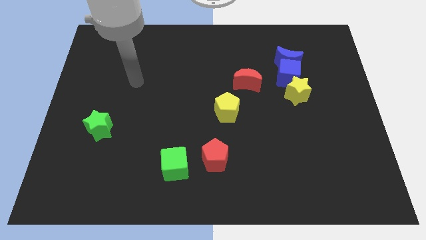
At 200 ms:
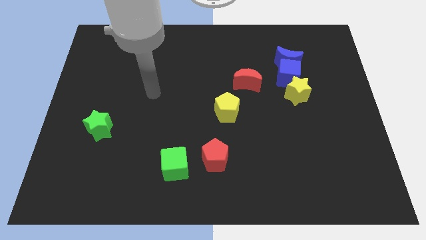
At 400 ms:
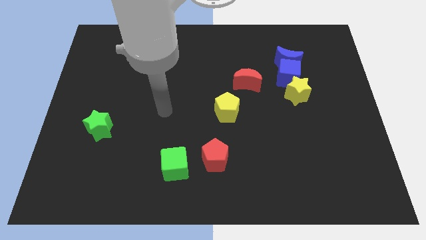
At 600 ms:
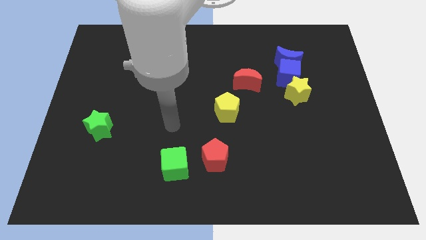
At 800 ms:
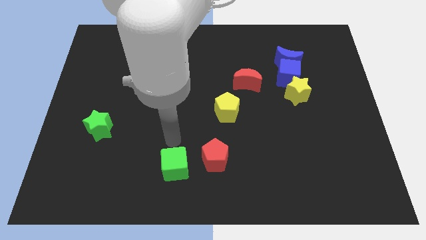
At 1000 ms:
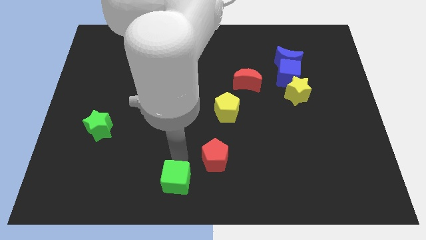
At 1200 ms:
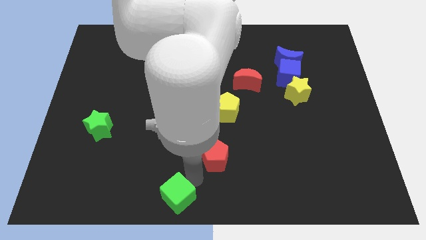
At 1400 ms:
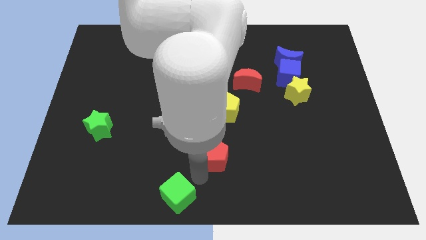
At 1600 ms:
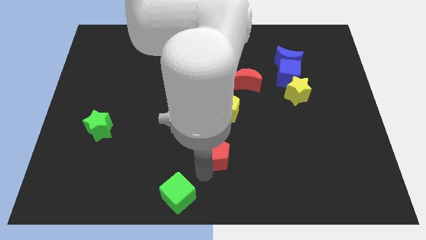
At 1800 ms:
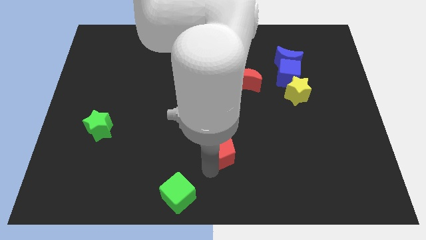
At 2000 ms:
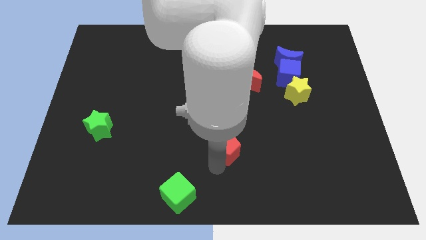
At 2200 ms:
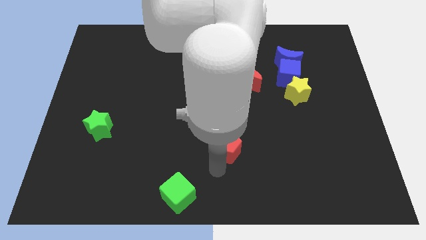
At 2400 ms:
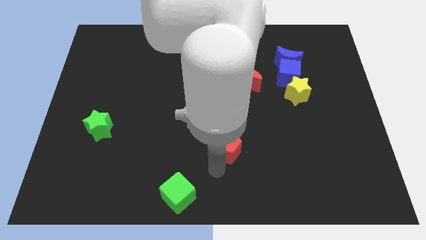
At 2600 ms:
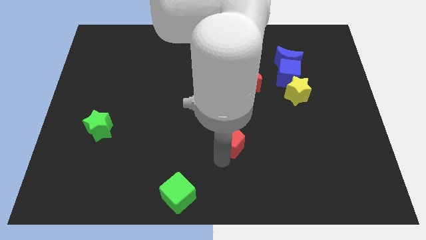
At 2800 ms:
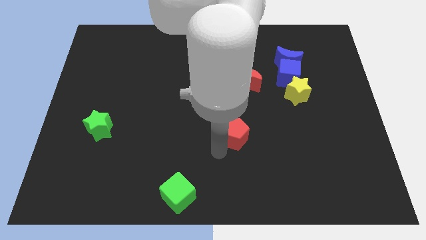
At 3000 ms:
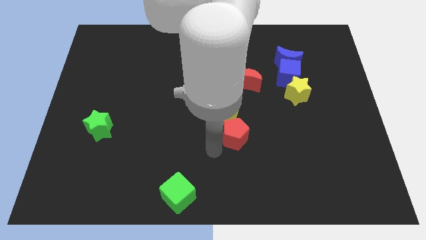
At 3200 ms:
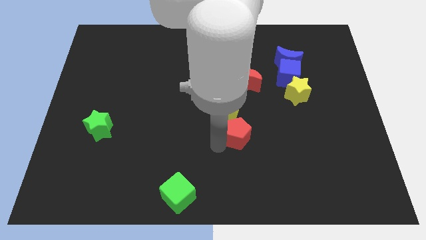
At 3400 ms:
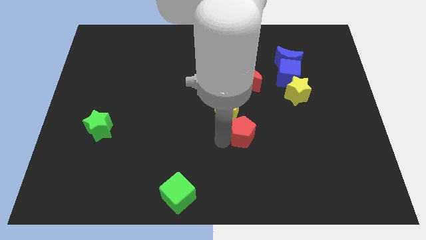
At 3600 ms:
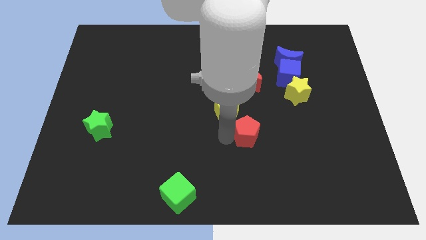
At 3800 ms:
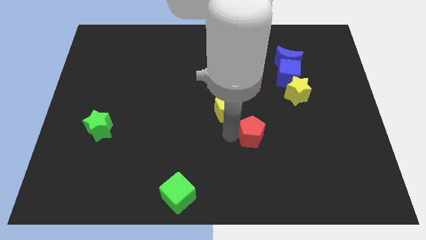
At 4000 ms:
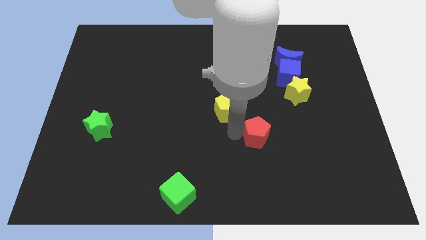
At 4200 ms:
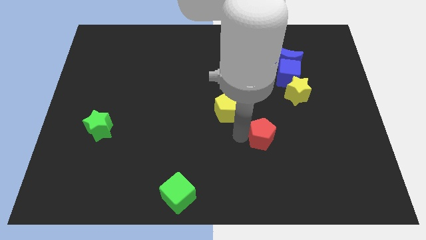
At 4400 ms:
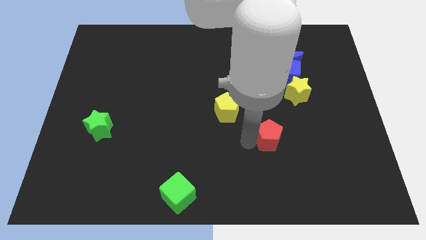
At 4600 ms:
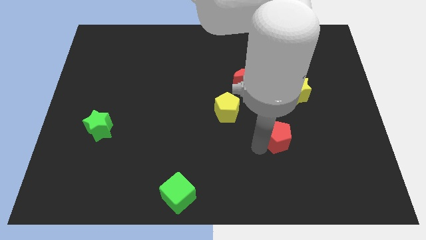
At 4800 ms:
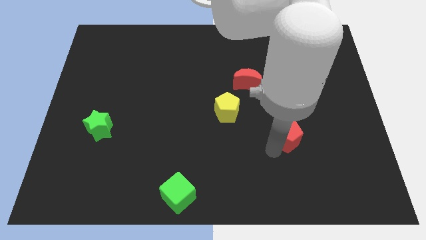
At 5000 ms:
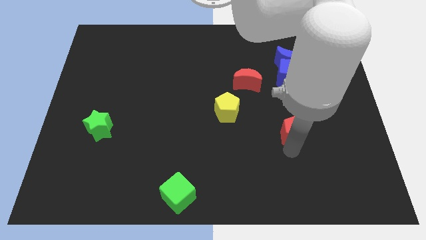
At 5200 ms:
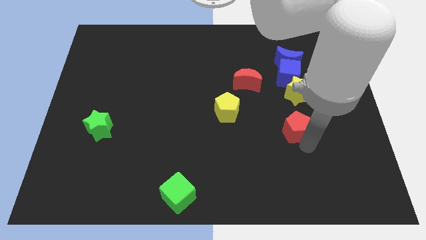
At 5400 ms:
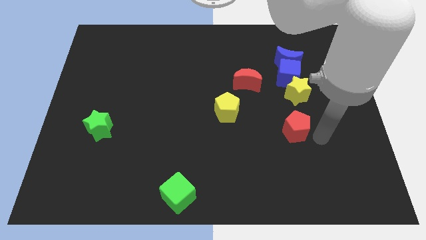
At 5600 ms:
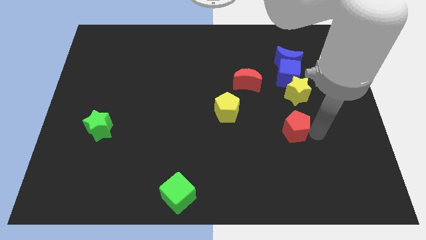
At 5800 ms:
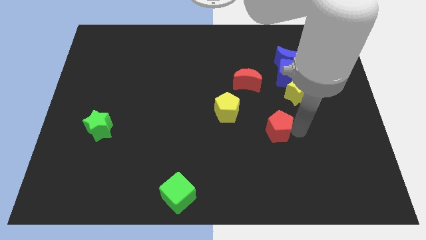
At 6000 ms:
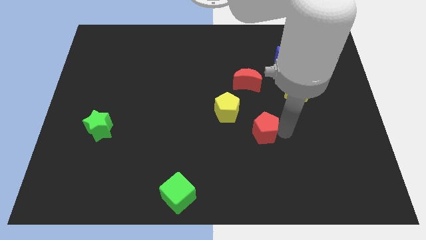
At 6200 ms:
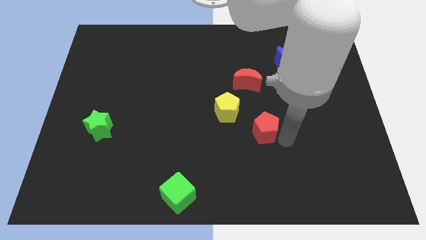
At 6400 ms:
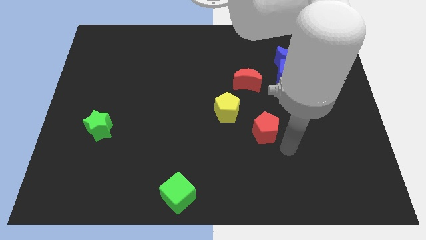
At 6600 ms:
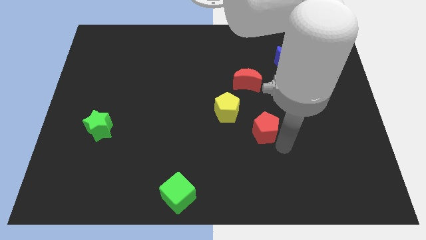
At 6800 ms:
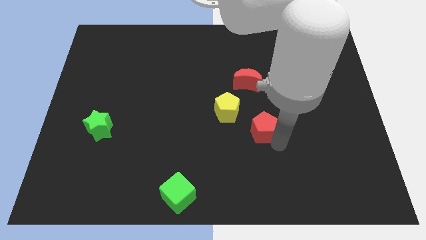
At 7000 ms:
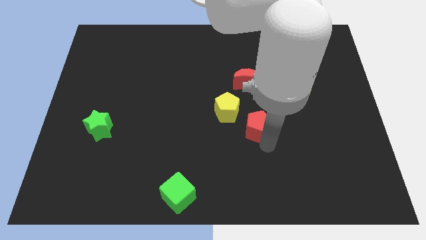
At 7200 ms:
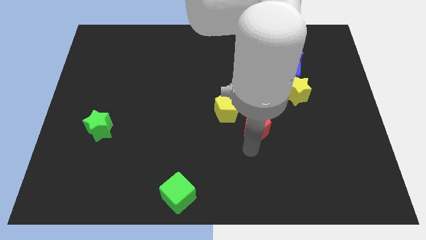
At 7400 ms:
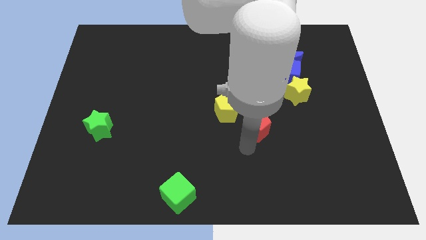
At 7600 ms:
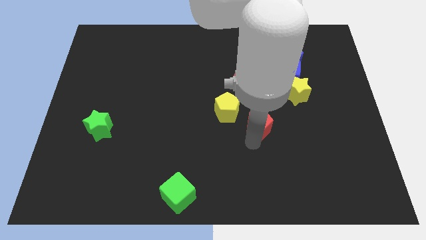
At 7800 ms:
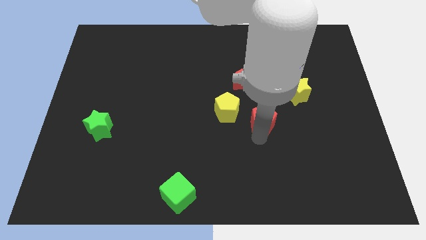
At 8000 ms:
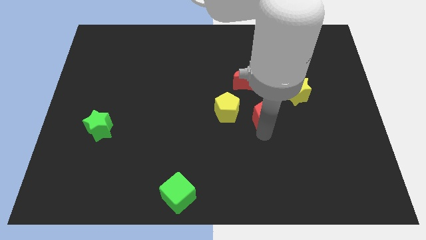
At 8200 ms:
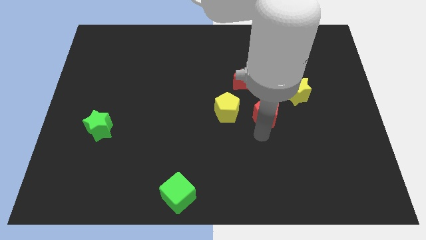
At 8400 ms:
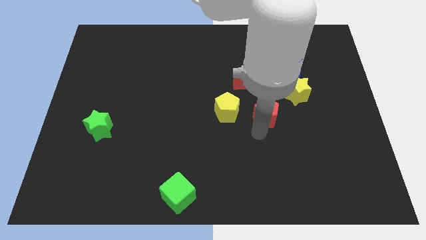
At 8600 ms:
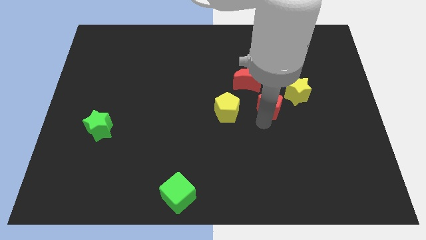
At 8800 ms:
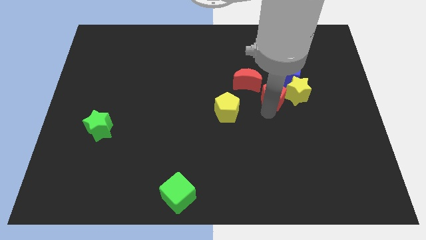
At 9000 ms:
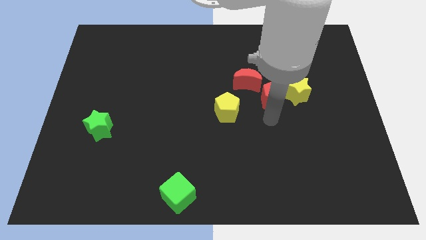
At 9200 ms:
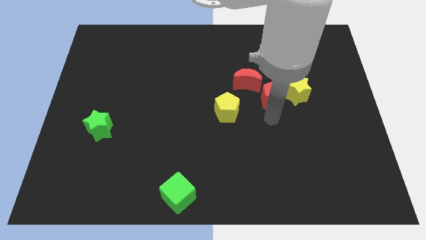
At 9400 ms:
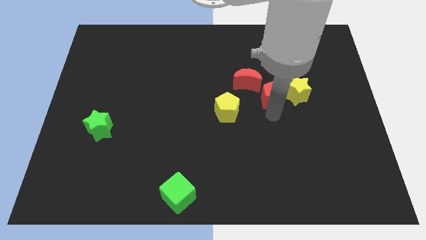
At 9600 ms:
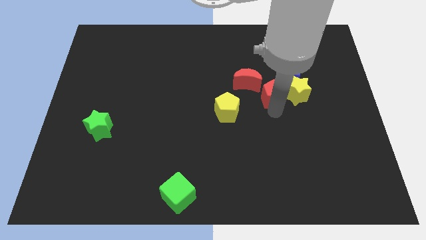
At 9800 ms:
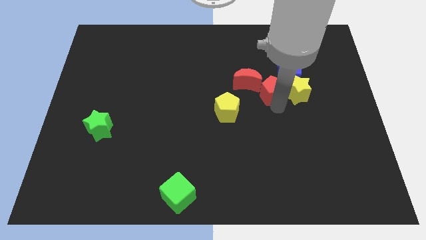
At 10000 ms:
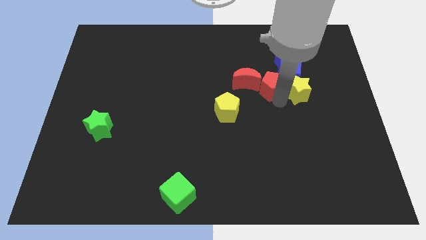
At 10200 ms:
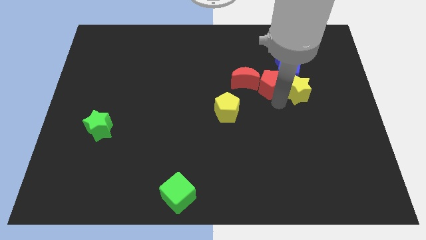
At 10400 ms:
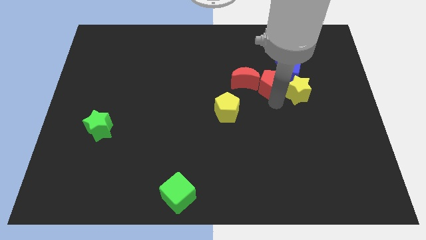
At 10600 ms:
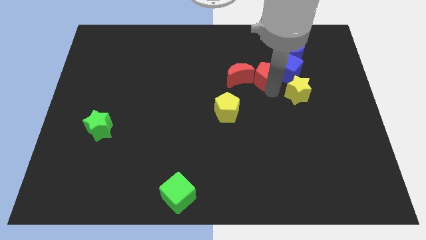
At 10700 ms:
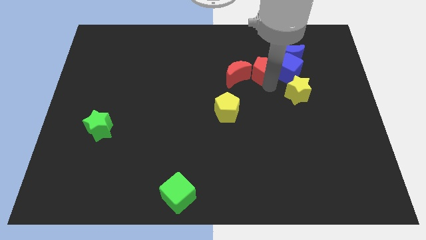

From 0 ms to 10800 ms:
slide the red pentagon to the top right side of the red moon

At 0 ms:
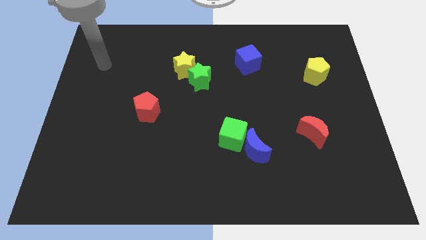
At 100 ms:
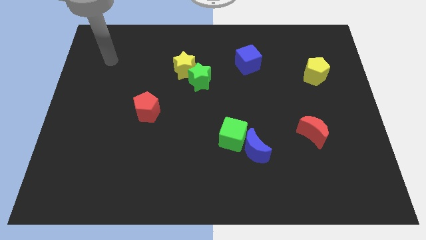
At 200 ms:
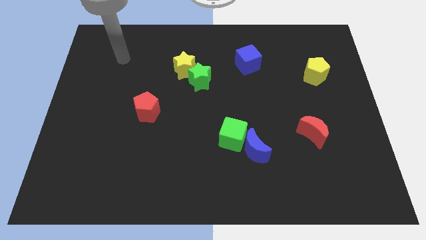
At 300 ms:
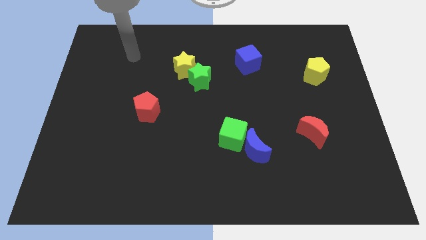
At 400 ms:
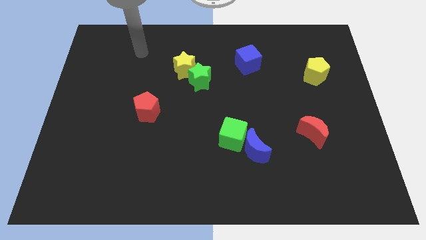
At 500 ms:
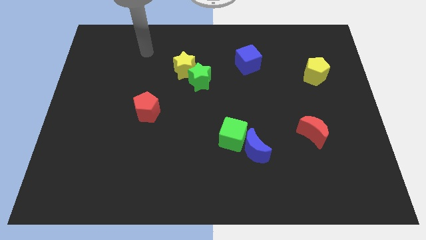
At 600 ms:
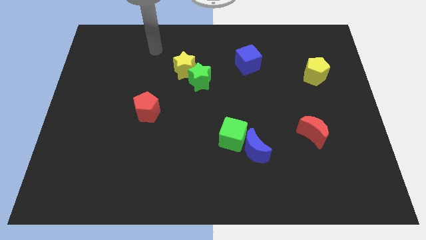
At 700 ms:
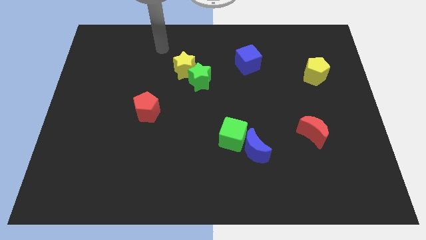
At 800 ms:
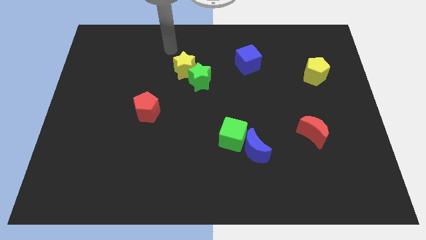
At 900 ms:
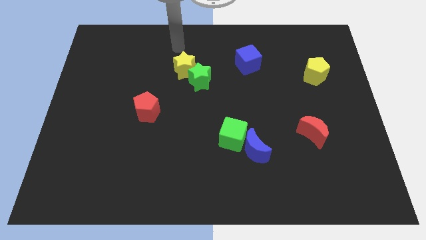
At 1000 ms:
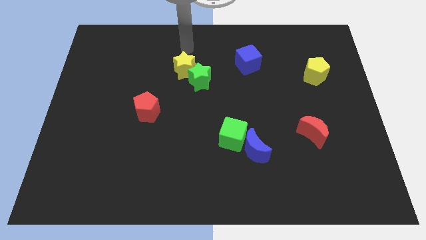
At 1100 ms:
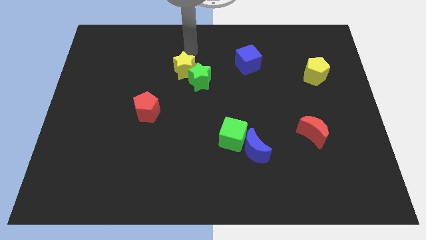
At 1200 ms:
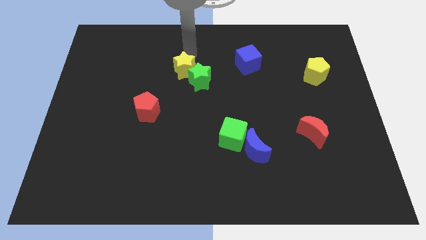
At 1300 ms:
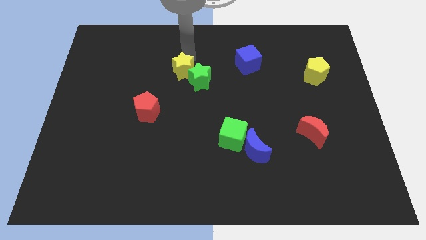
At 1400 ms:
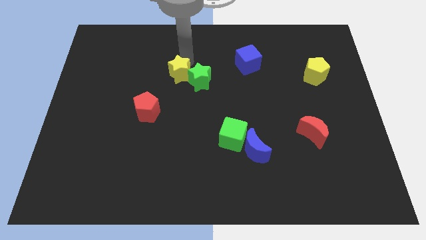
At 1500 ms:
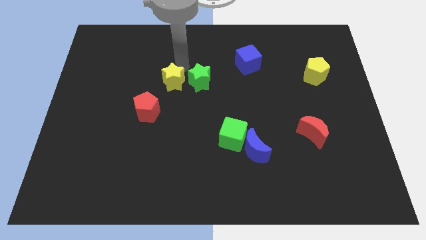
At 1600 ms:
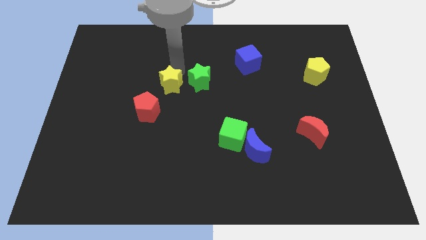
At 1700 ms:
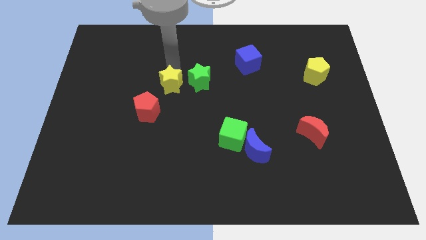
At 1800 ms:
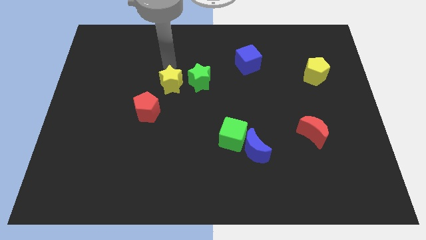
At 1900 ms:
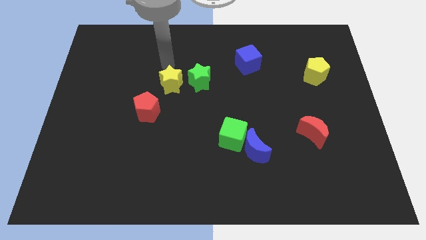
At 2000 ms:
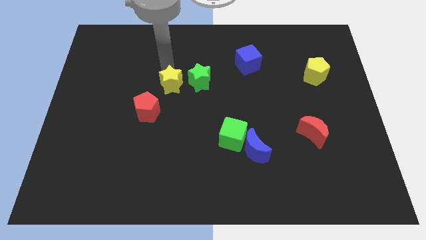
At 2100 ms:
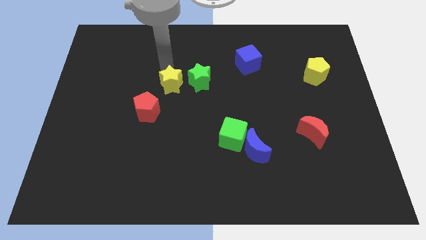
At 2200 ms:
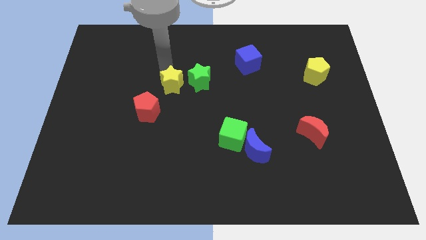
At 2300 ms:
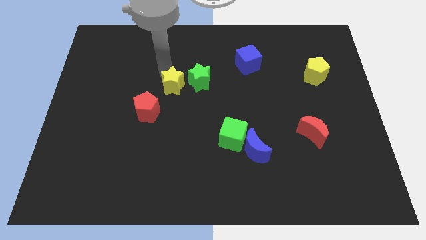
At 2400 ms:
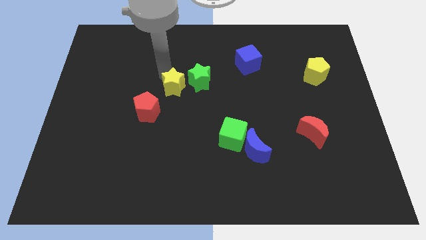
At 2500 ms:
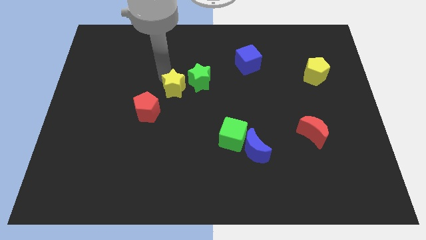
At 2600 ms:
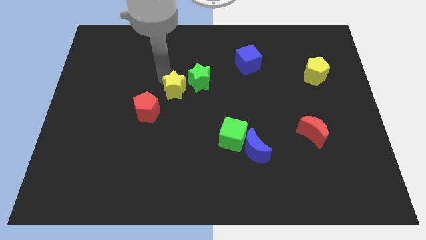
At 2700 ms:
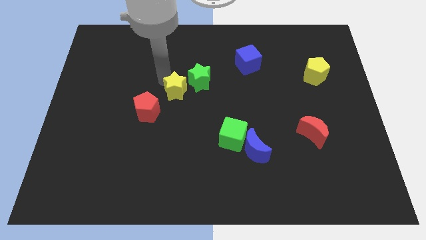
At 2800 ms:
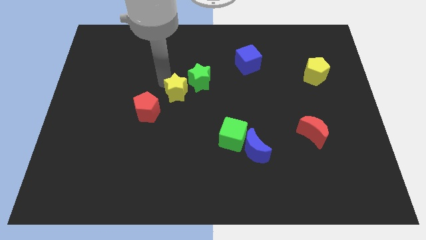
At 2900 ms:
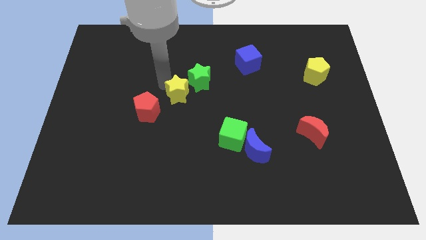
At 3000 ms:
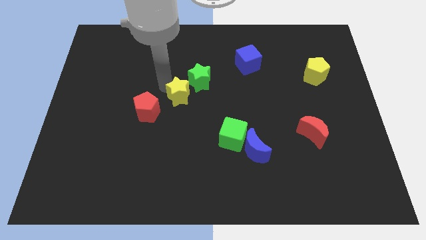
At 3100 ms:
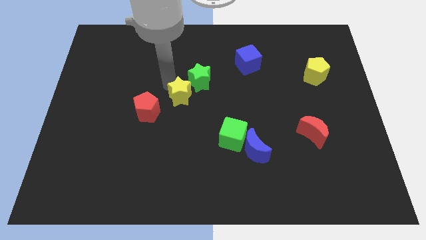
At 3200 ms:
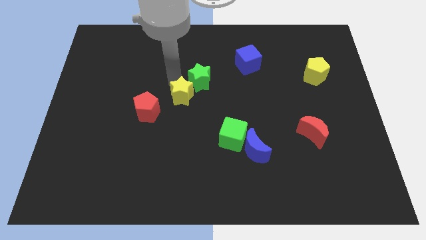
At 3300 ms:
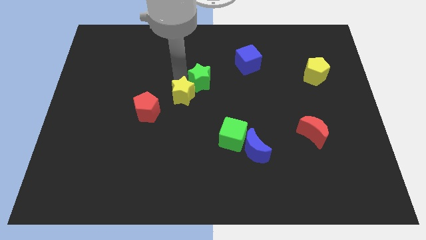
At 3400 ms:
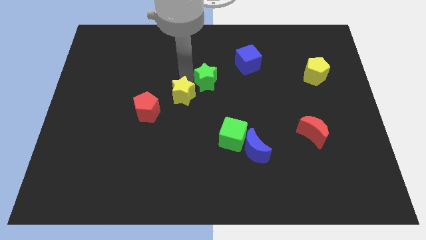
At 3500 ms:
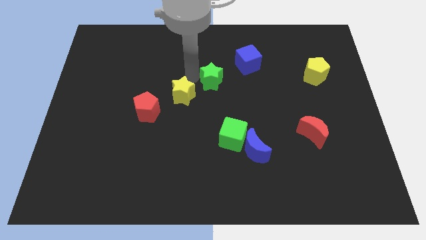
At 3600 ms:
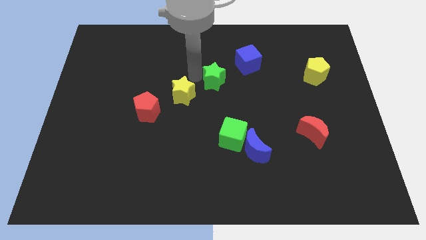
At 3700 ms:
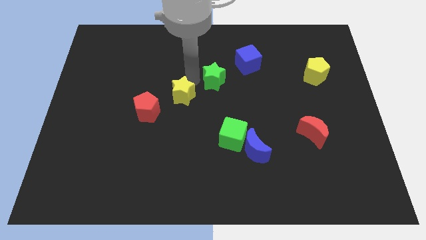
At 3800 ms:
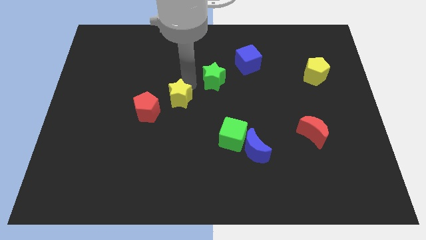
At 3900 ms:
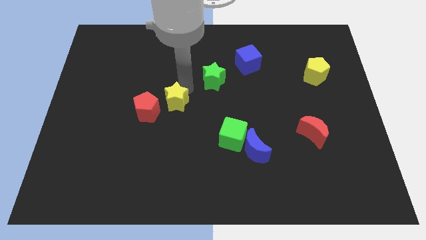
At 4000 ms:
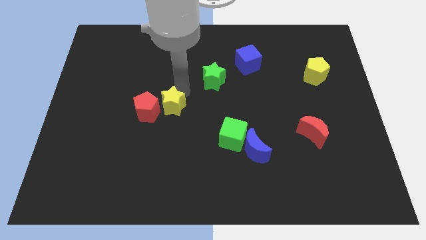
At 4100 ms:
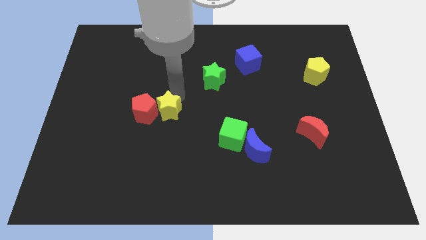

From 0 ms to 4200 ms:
put the yellow star to the bottom right side of the red pentagon
